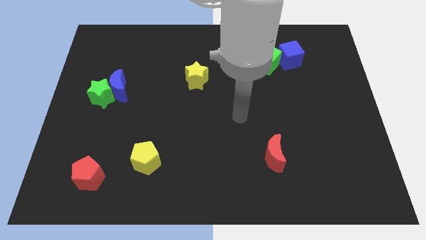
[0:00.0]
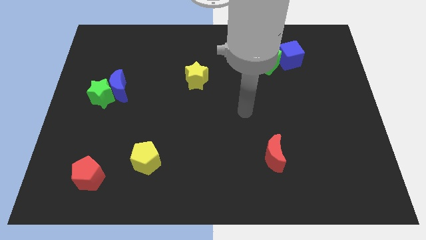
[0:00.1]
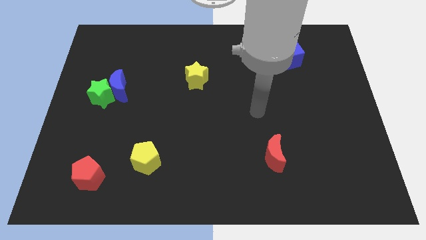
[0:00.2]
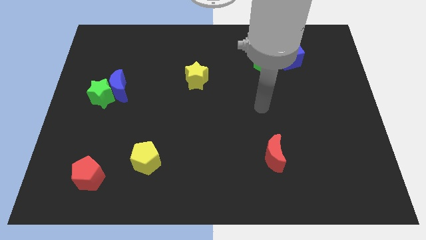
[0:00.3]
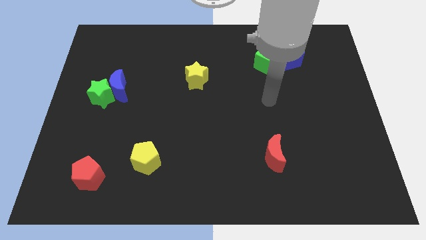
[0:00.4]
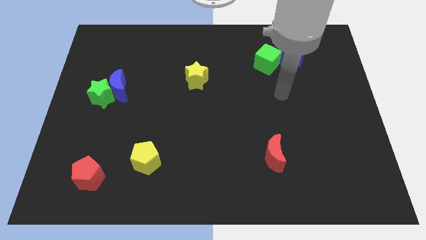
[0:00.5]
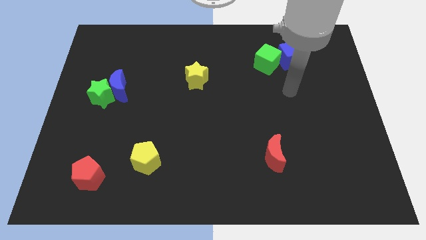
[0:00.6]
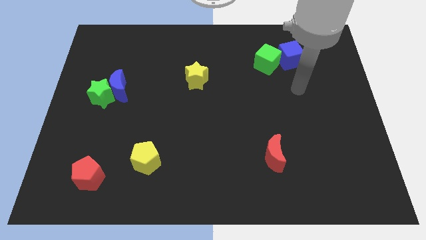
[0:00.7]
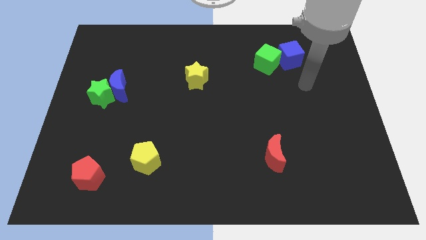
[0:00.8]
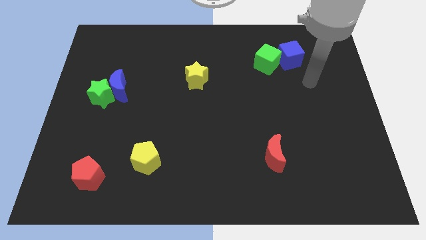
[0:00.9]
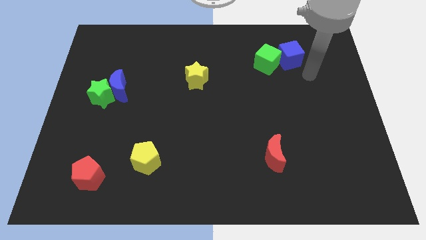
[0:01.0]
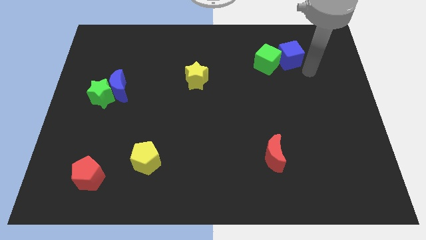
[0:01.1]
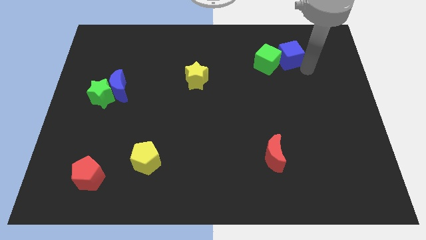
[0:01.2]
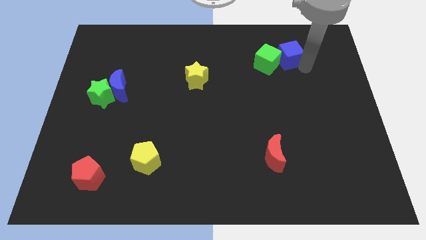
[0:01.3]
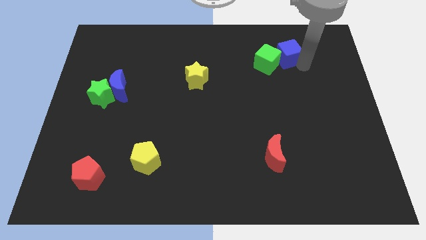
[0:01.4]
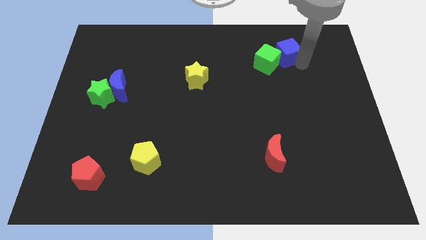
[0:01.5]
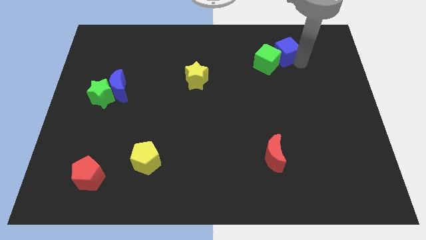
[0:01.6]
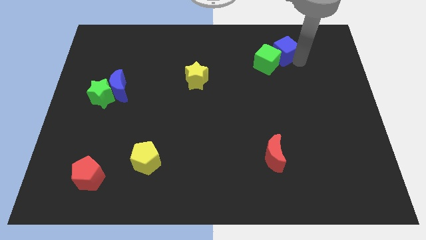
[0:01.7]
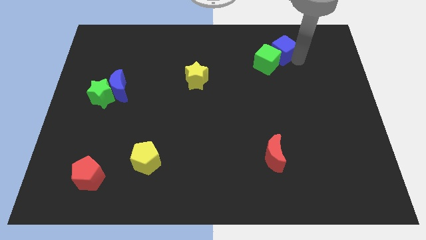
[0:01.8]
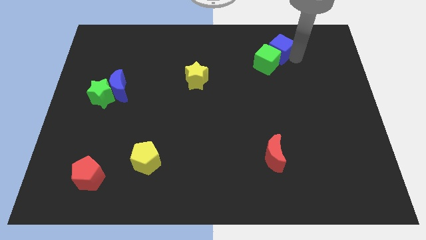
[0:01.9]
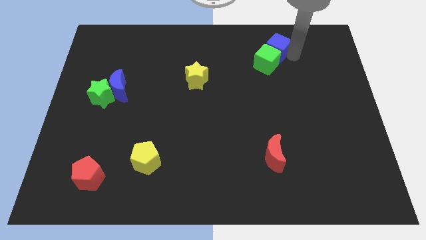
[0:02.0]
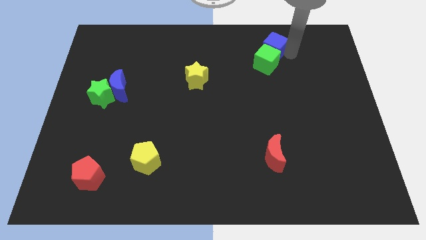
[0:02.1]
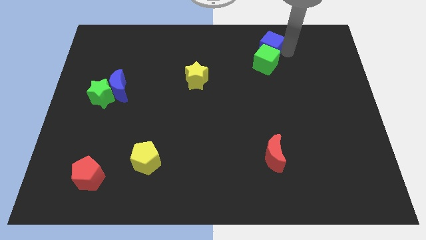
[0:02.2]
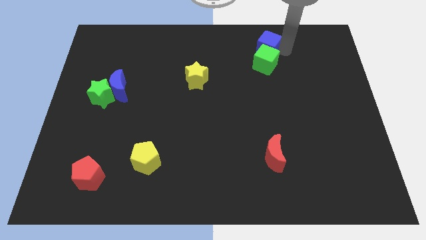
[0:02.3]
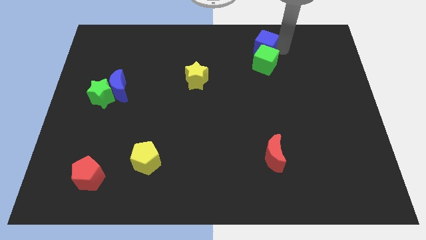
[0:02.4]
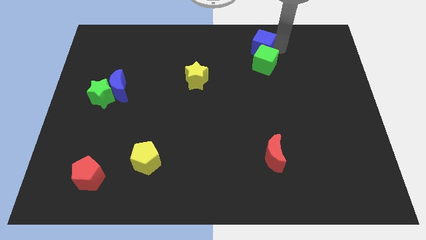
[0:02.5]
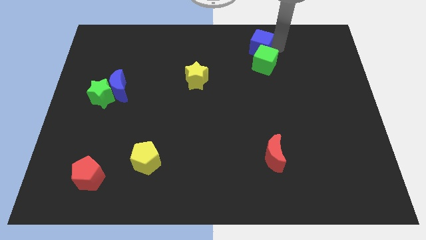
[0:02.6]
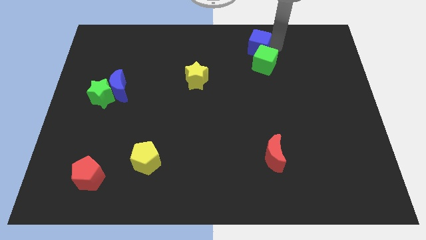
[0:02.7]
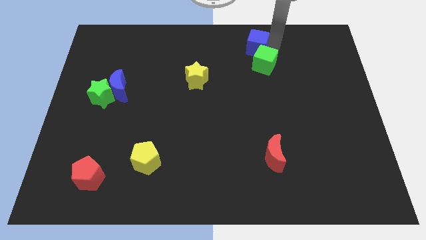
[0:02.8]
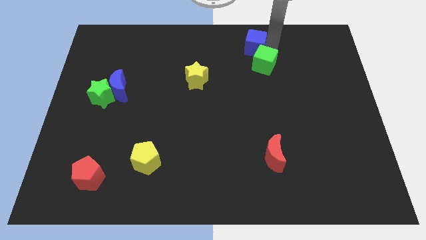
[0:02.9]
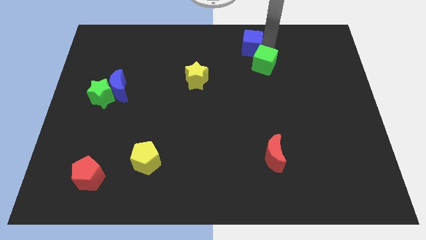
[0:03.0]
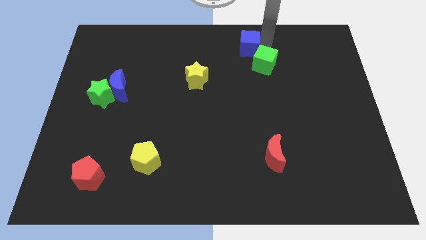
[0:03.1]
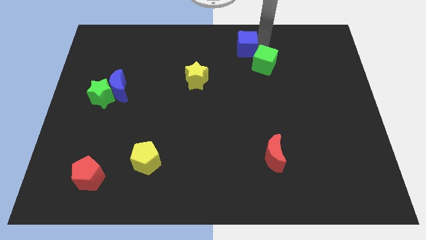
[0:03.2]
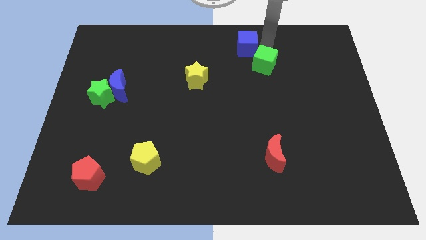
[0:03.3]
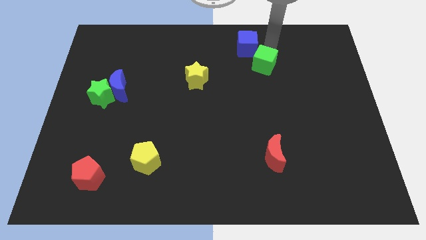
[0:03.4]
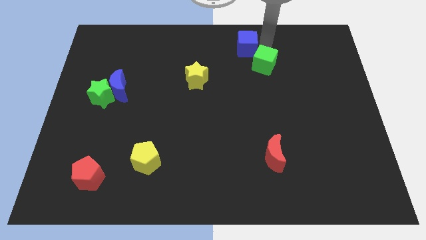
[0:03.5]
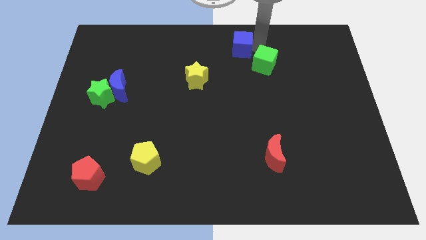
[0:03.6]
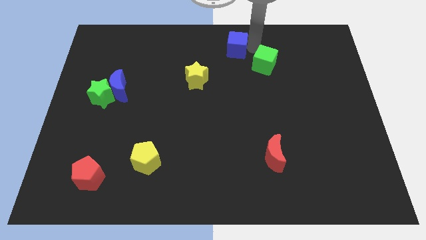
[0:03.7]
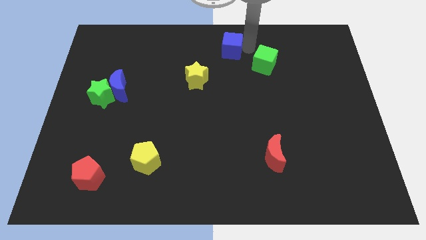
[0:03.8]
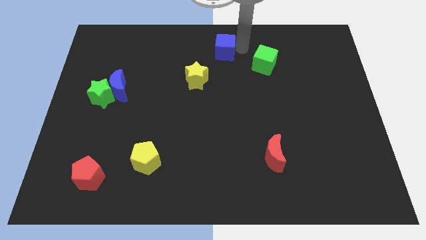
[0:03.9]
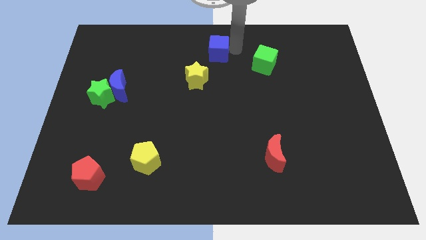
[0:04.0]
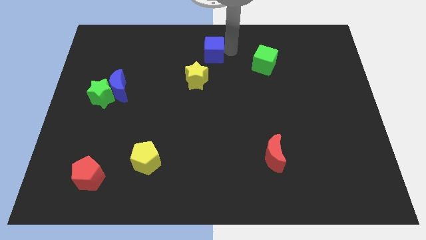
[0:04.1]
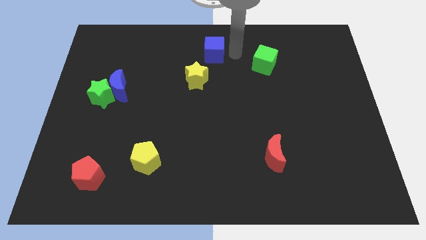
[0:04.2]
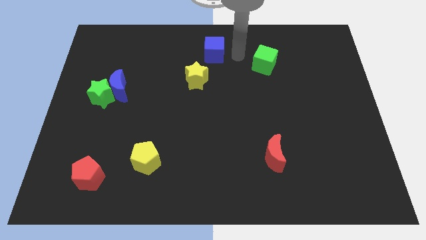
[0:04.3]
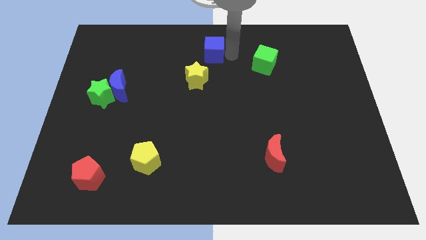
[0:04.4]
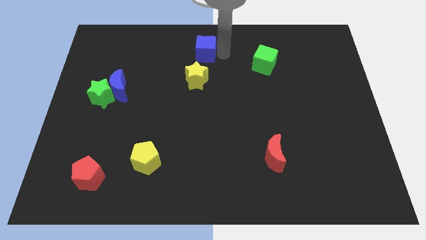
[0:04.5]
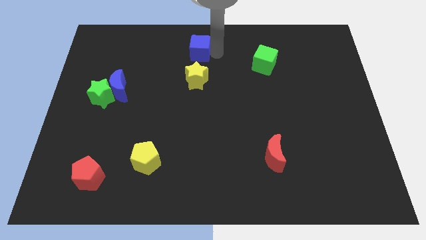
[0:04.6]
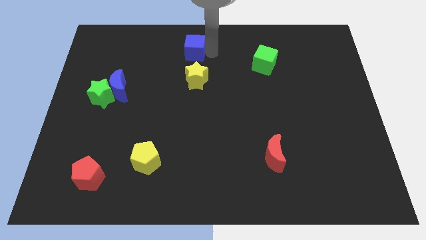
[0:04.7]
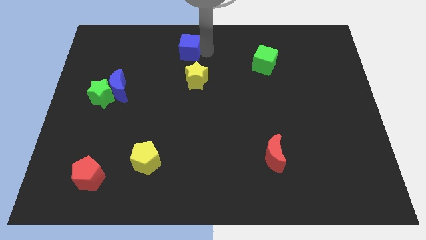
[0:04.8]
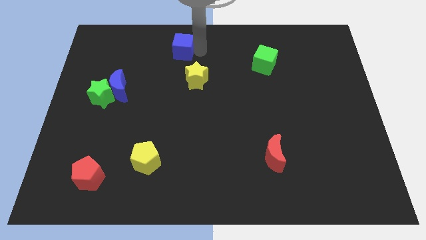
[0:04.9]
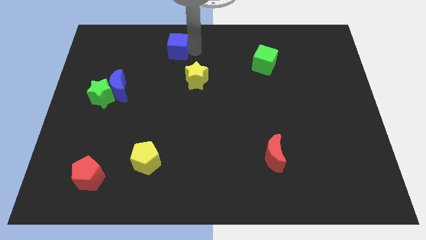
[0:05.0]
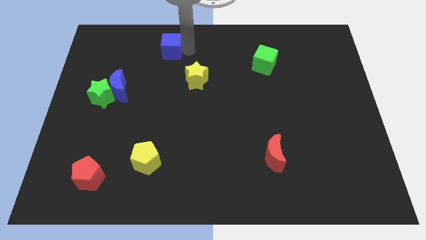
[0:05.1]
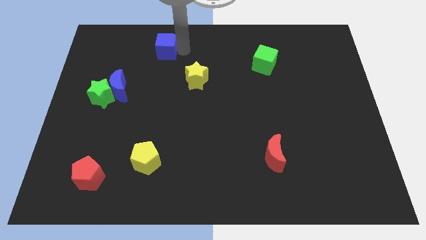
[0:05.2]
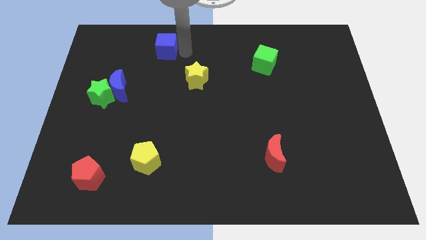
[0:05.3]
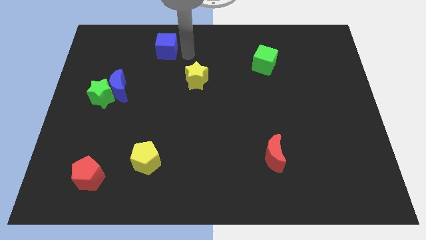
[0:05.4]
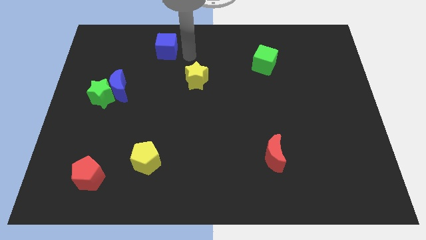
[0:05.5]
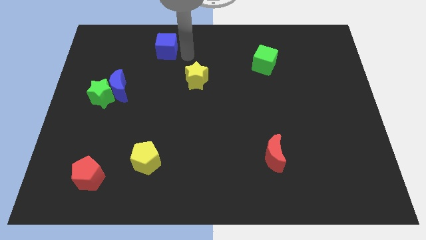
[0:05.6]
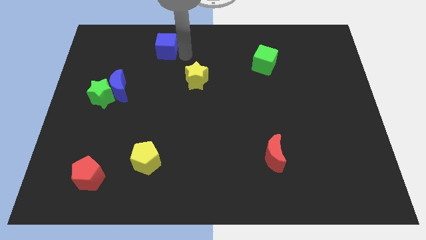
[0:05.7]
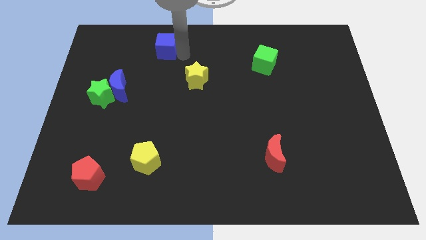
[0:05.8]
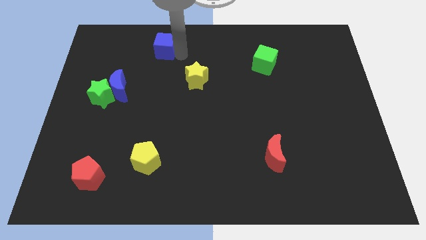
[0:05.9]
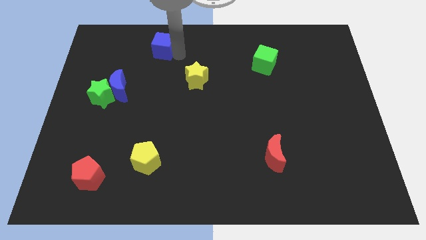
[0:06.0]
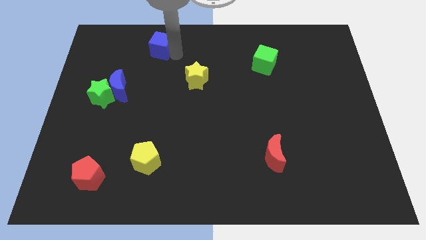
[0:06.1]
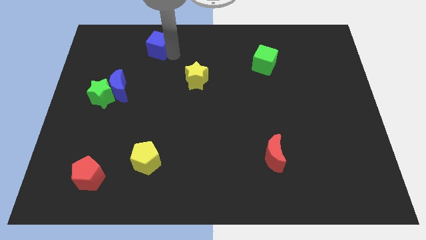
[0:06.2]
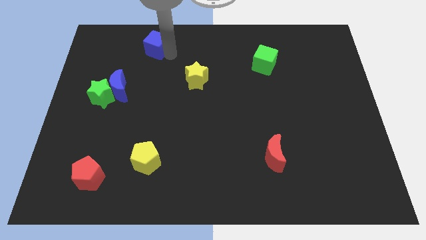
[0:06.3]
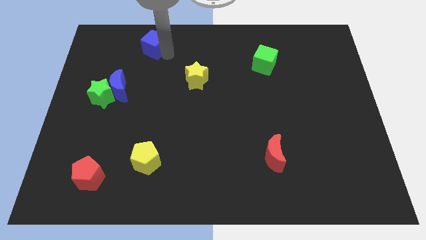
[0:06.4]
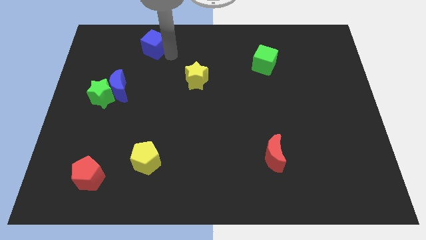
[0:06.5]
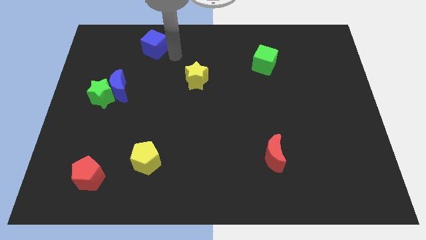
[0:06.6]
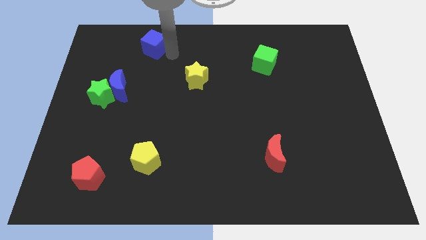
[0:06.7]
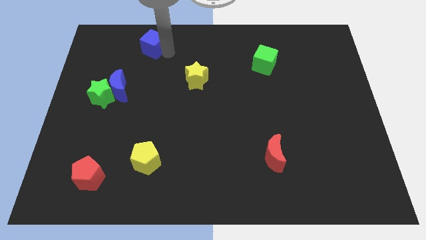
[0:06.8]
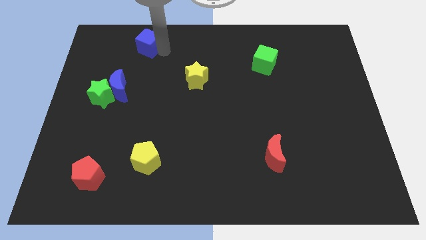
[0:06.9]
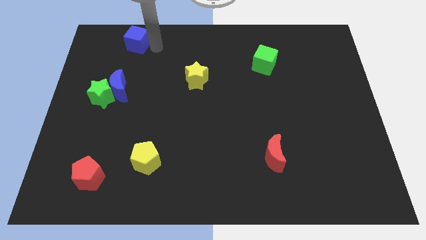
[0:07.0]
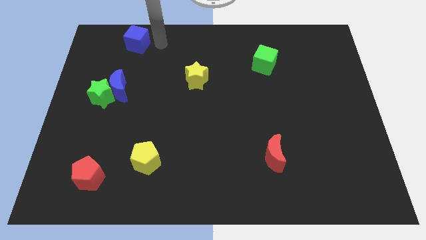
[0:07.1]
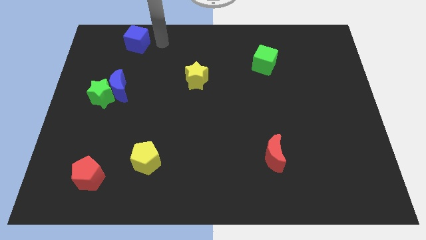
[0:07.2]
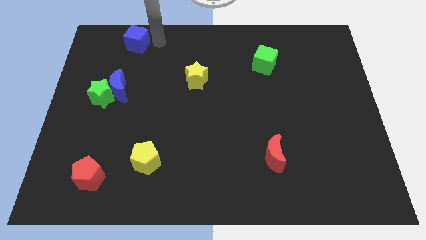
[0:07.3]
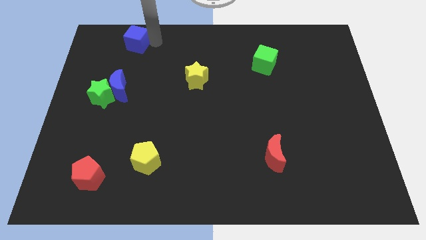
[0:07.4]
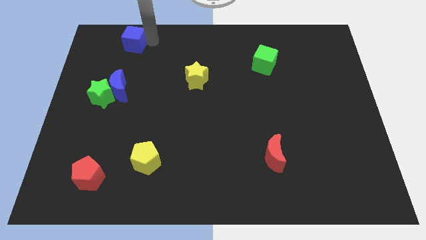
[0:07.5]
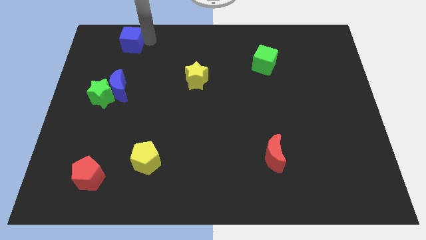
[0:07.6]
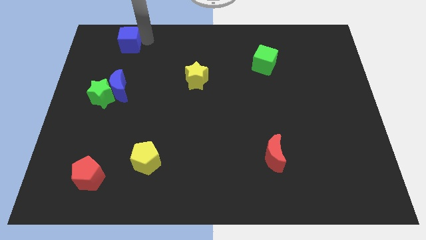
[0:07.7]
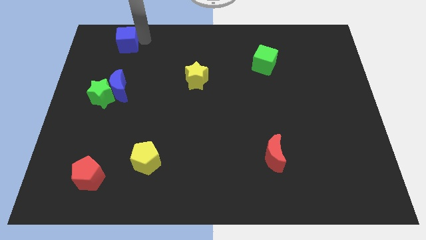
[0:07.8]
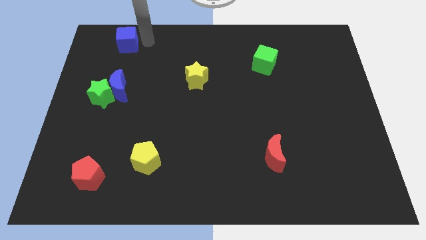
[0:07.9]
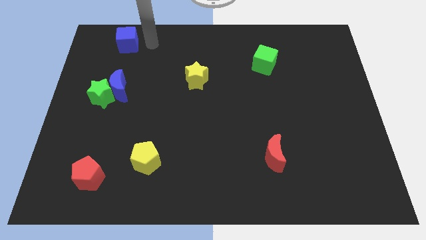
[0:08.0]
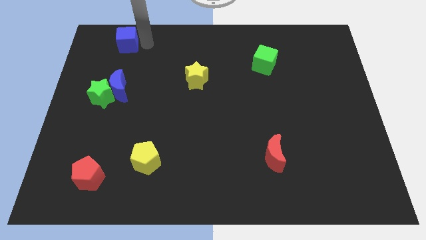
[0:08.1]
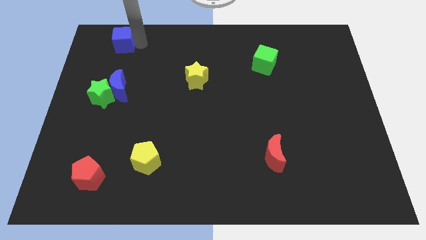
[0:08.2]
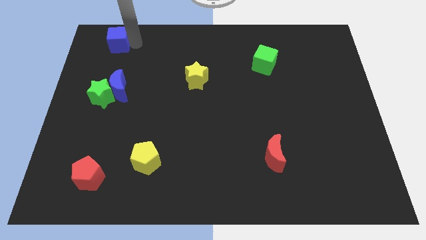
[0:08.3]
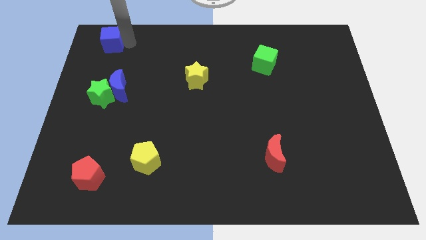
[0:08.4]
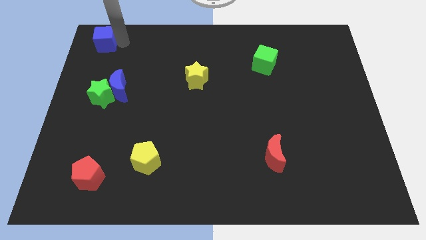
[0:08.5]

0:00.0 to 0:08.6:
slide the blue cube to the top left
